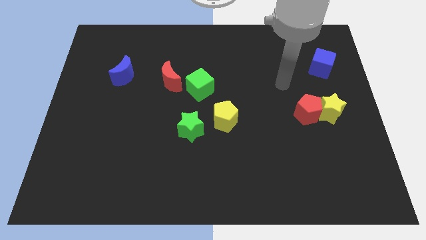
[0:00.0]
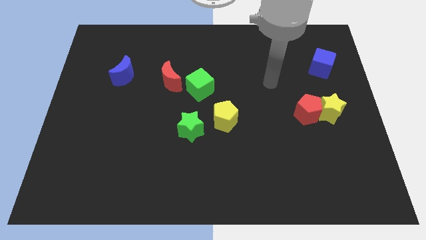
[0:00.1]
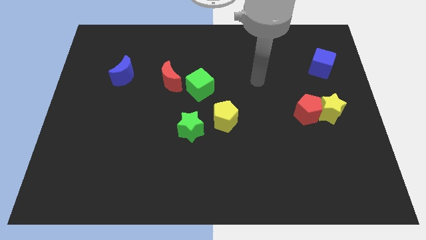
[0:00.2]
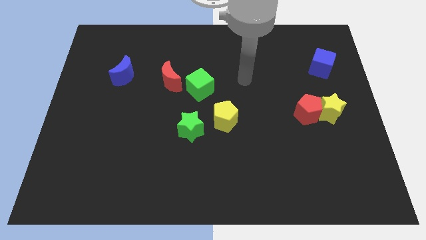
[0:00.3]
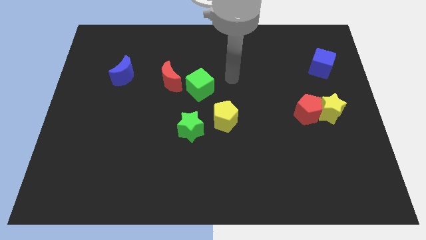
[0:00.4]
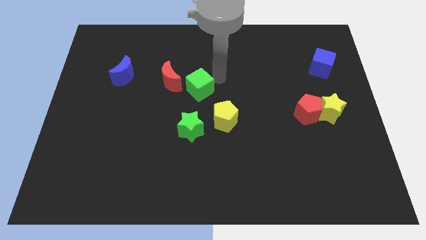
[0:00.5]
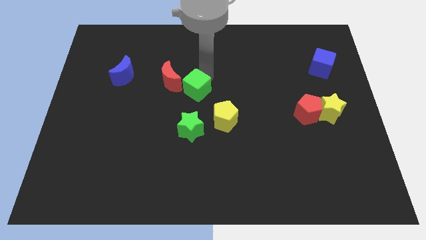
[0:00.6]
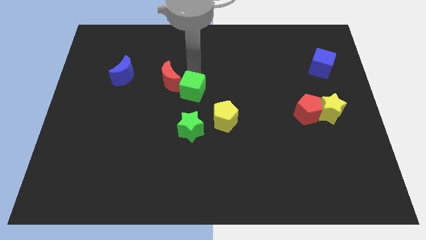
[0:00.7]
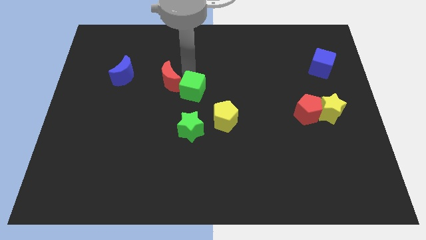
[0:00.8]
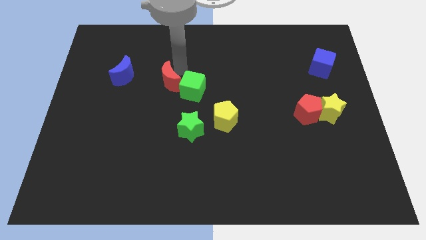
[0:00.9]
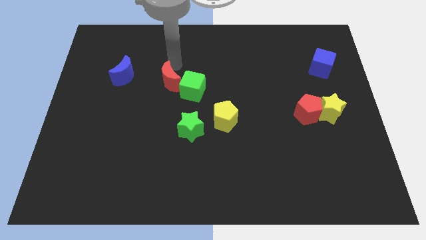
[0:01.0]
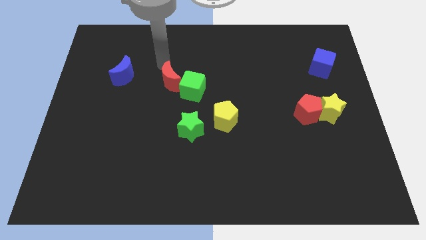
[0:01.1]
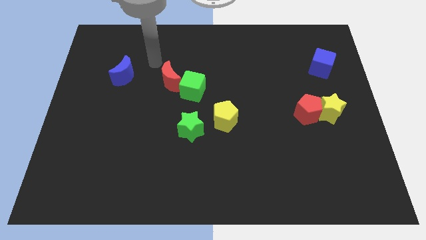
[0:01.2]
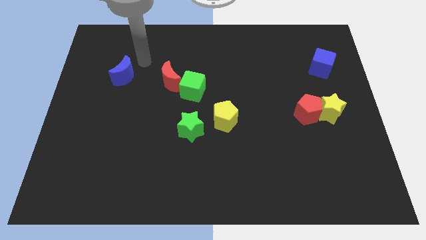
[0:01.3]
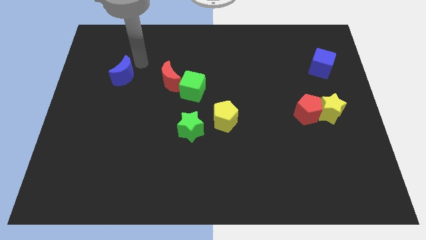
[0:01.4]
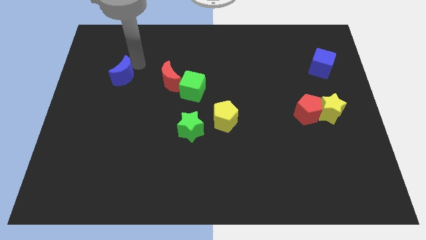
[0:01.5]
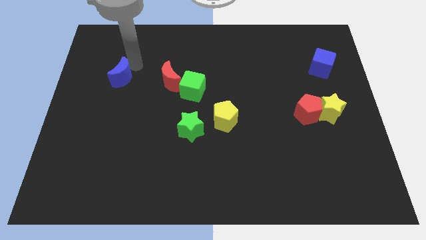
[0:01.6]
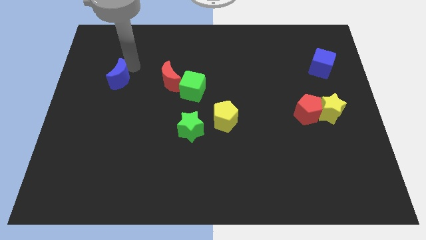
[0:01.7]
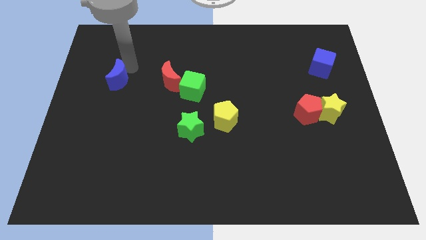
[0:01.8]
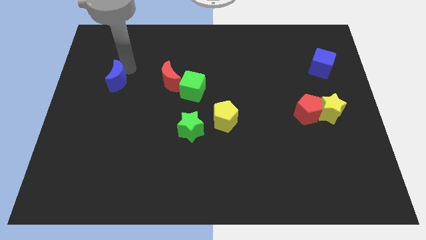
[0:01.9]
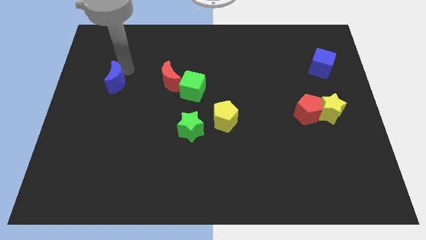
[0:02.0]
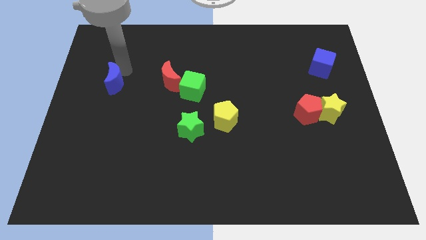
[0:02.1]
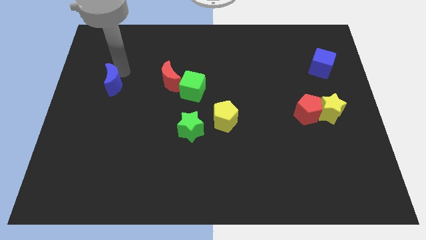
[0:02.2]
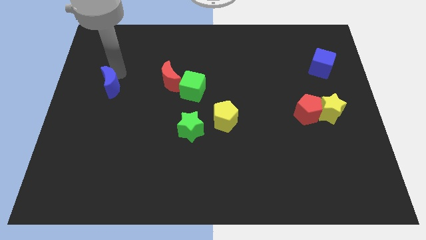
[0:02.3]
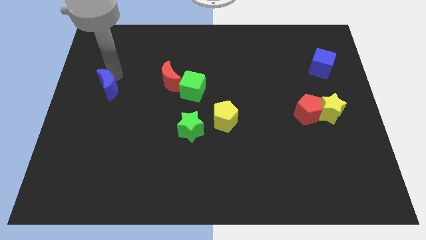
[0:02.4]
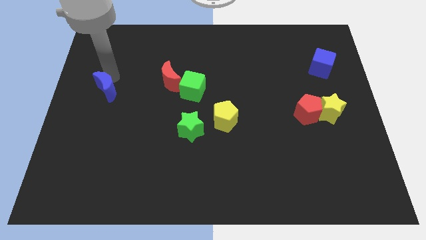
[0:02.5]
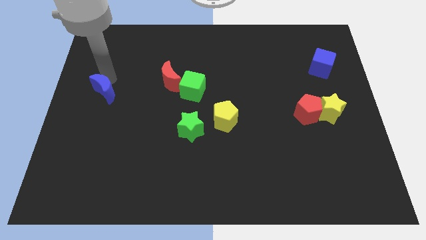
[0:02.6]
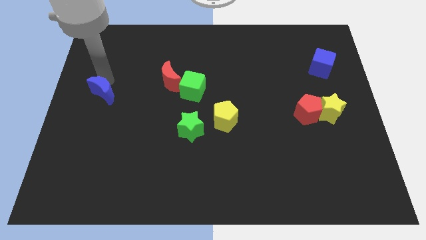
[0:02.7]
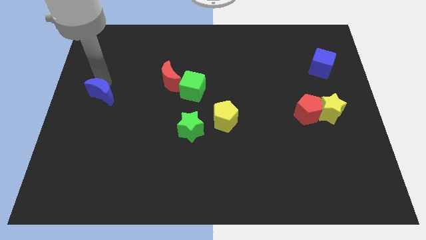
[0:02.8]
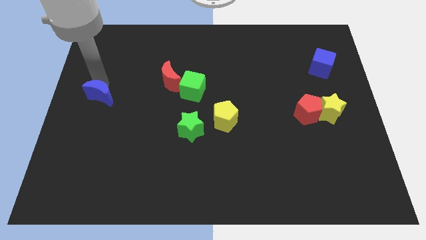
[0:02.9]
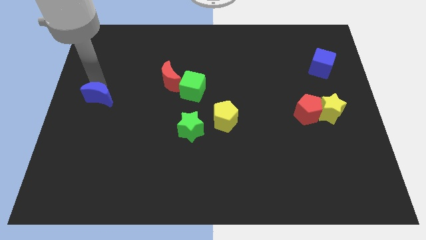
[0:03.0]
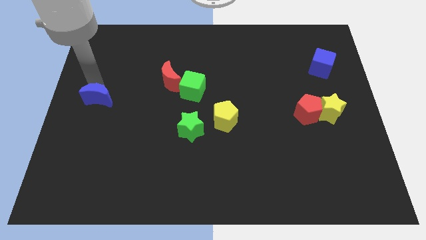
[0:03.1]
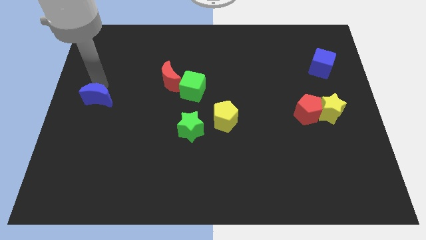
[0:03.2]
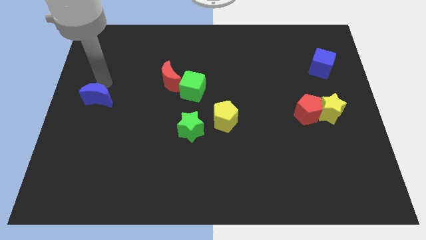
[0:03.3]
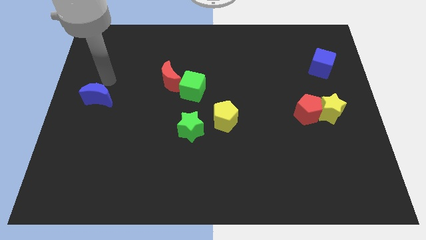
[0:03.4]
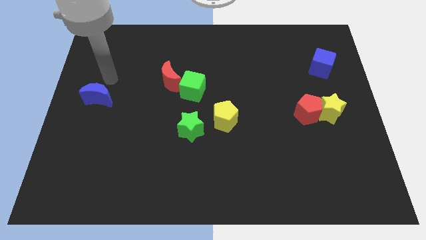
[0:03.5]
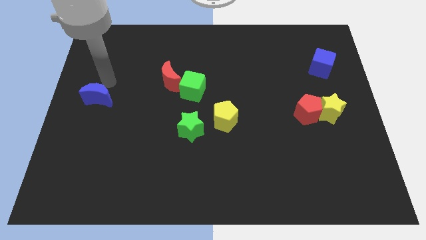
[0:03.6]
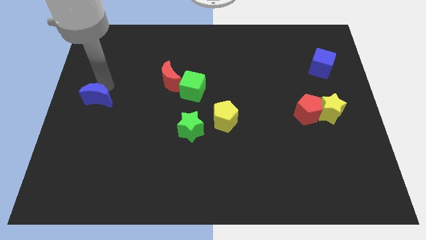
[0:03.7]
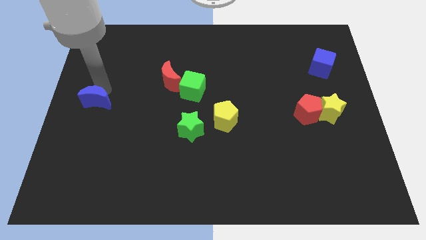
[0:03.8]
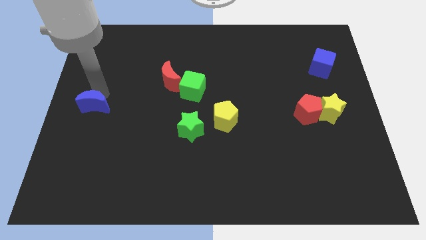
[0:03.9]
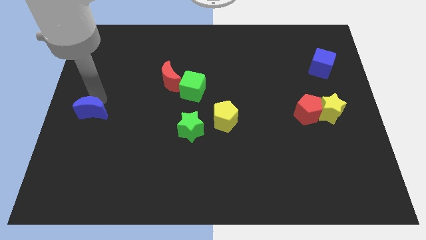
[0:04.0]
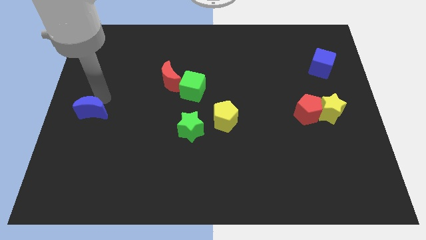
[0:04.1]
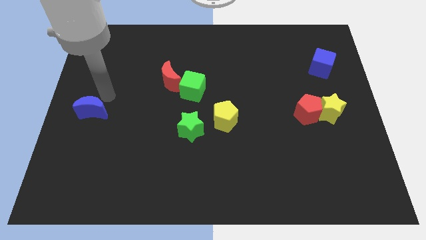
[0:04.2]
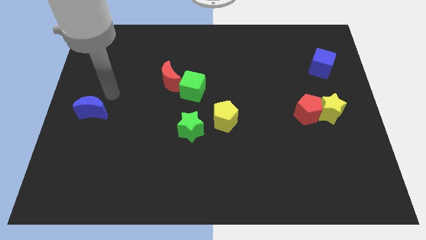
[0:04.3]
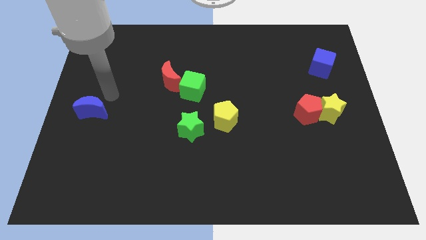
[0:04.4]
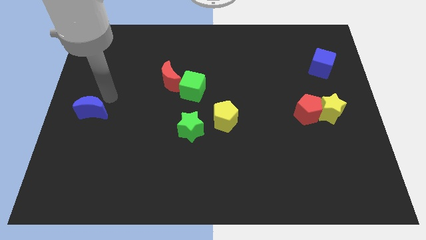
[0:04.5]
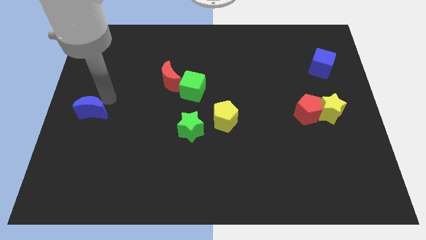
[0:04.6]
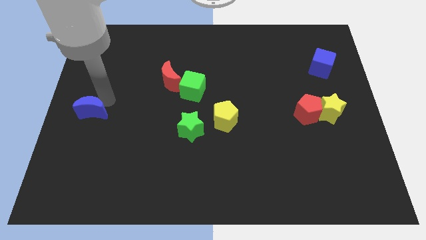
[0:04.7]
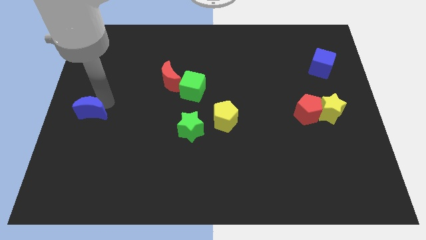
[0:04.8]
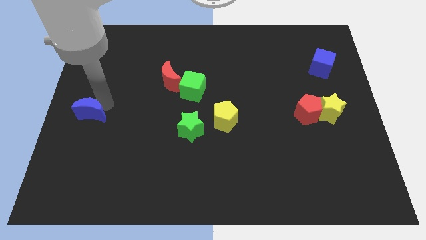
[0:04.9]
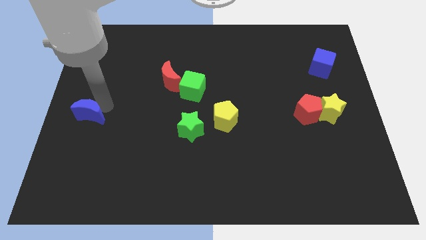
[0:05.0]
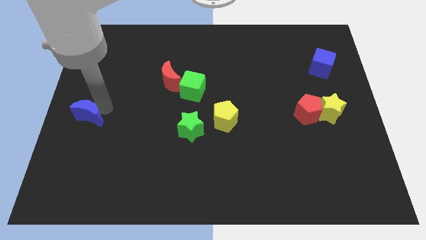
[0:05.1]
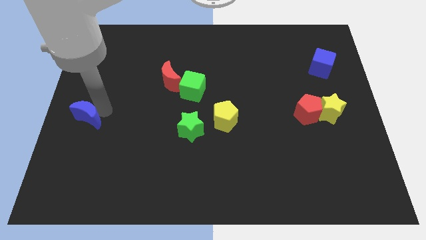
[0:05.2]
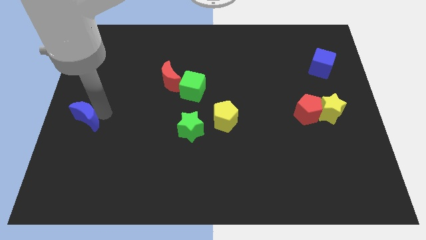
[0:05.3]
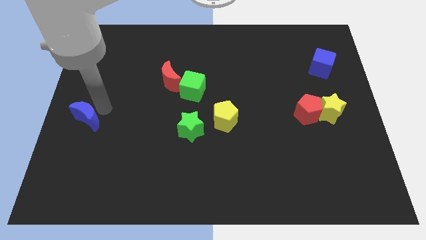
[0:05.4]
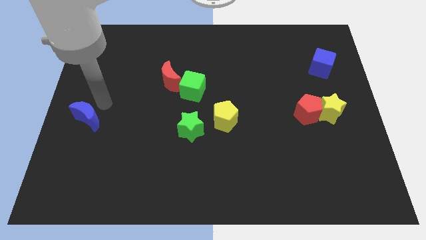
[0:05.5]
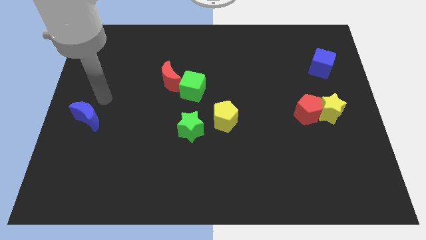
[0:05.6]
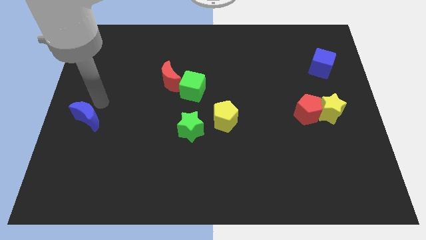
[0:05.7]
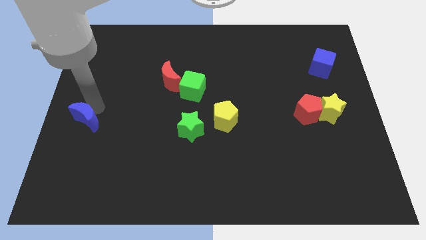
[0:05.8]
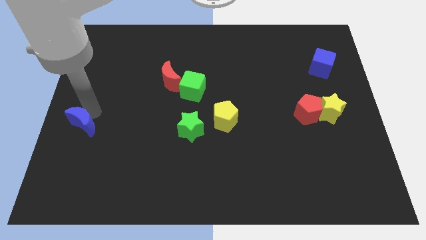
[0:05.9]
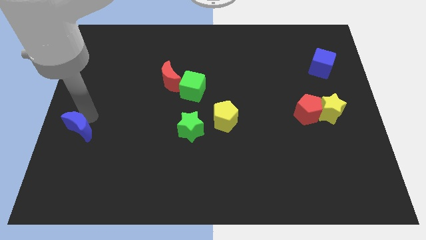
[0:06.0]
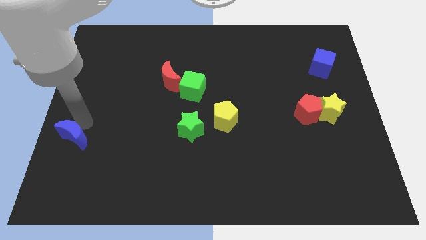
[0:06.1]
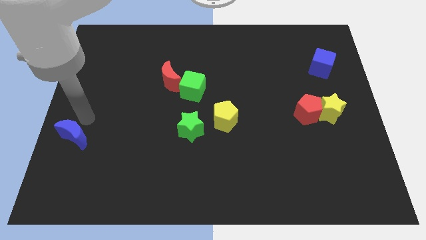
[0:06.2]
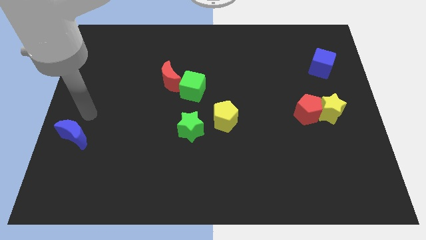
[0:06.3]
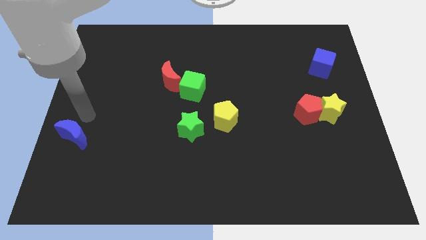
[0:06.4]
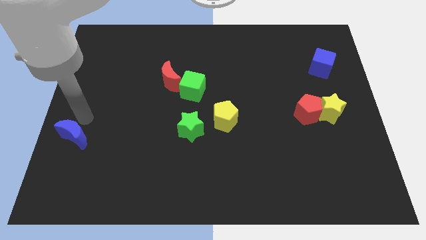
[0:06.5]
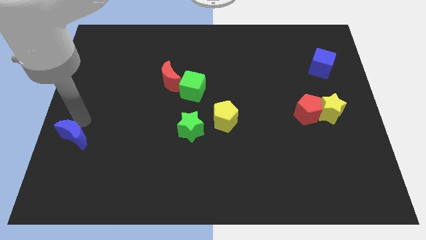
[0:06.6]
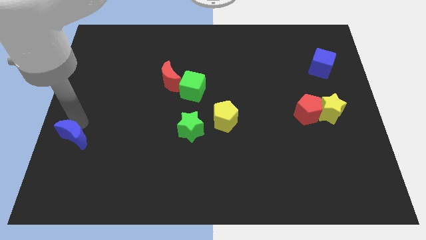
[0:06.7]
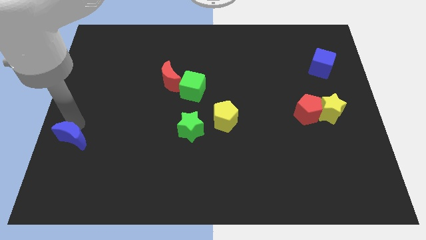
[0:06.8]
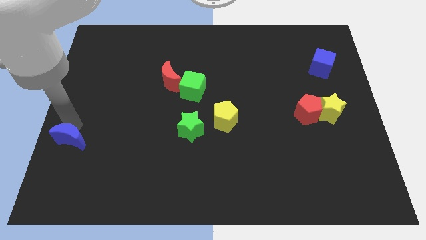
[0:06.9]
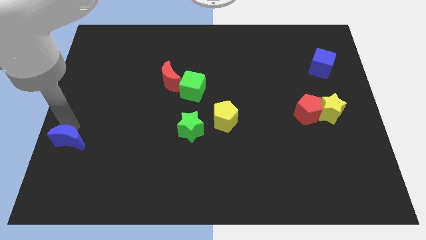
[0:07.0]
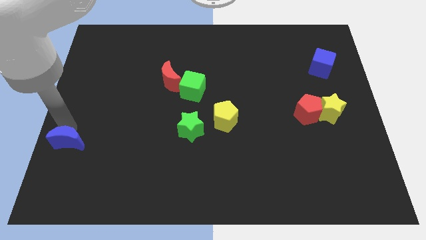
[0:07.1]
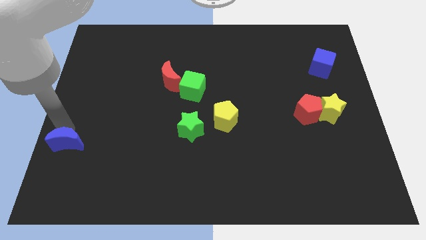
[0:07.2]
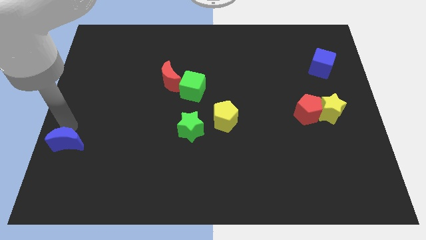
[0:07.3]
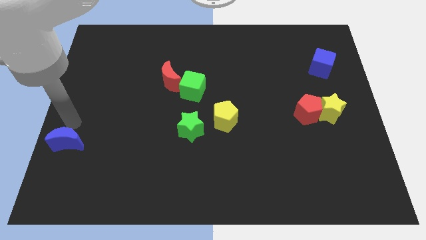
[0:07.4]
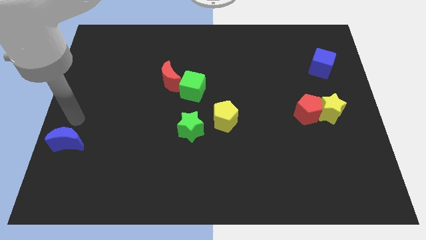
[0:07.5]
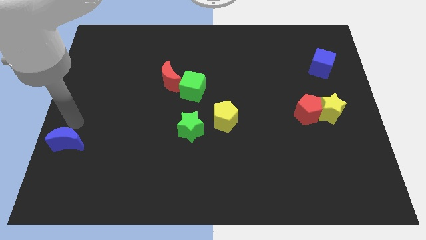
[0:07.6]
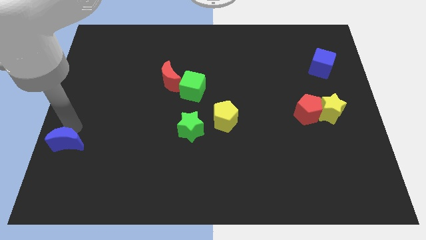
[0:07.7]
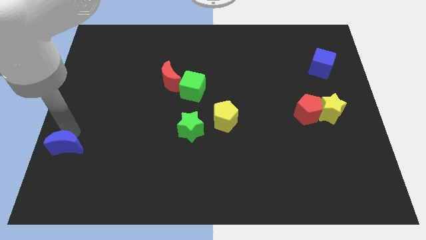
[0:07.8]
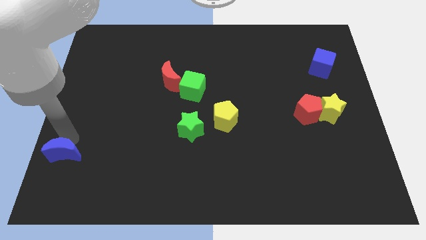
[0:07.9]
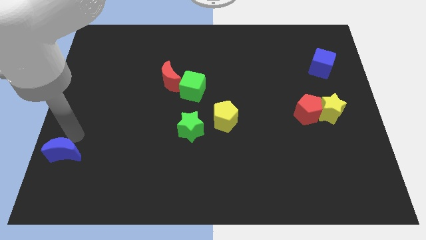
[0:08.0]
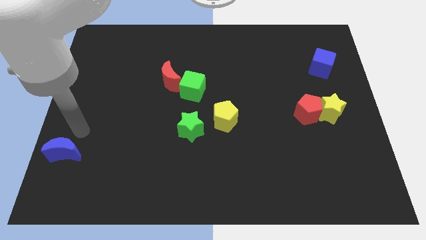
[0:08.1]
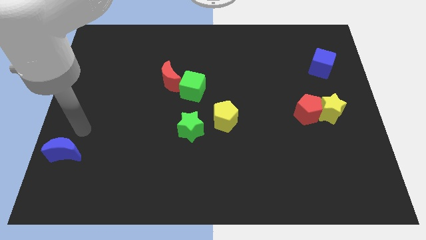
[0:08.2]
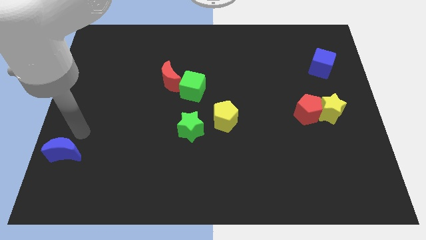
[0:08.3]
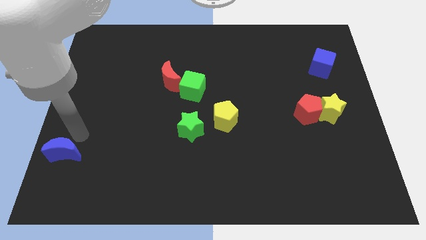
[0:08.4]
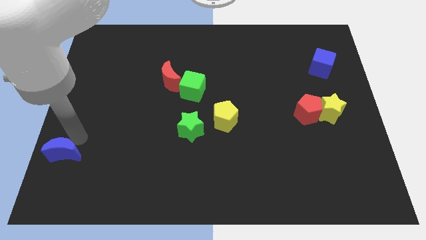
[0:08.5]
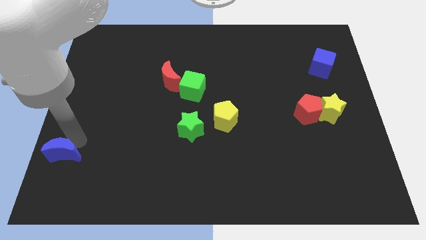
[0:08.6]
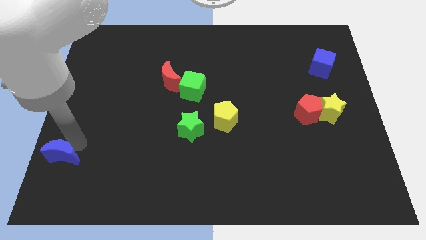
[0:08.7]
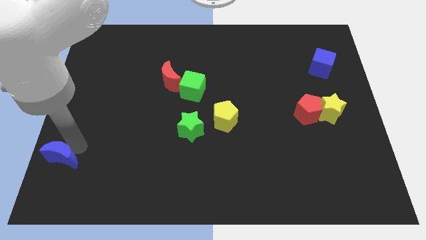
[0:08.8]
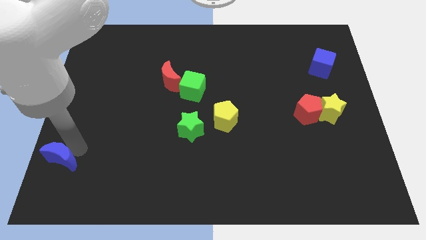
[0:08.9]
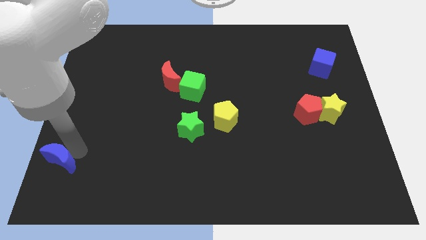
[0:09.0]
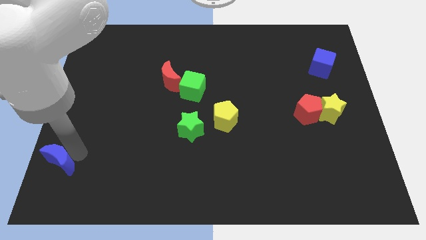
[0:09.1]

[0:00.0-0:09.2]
put the blue moon to the bottom left
